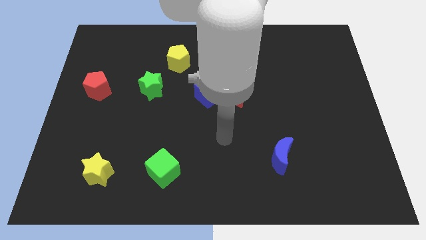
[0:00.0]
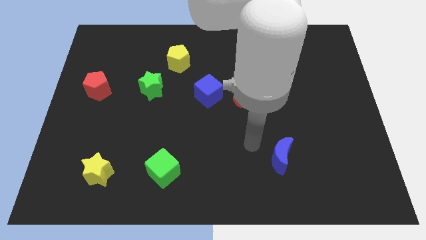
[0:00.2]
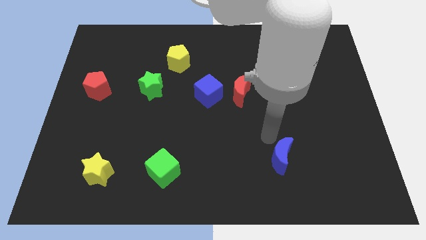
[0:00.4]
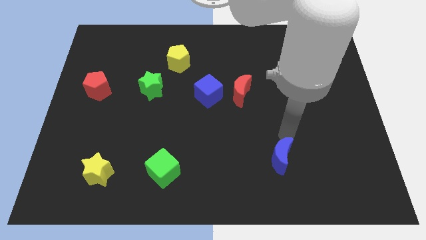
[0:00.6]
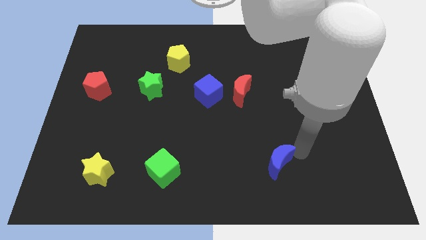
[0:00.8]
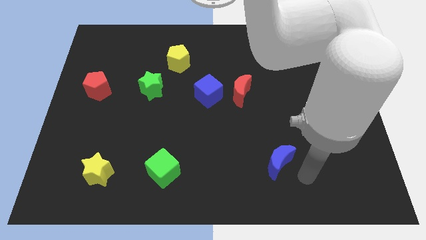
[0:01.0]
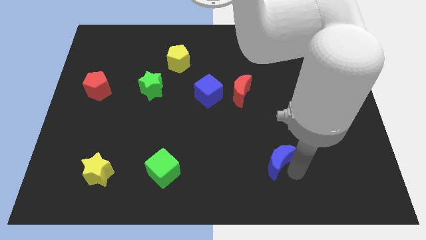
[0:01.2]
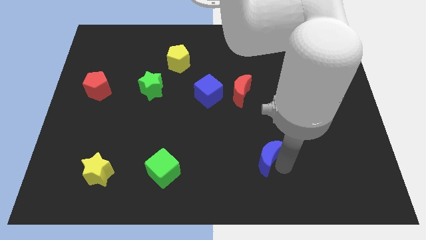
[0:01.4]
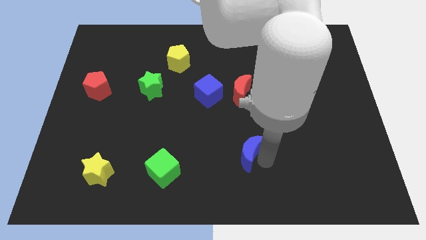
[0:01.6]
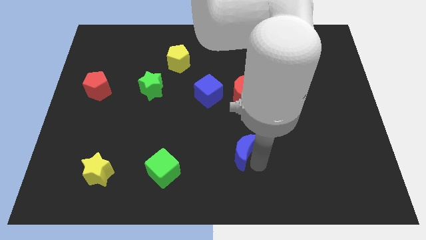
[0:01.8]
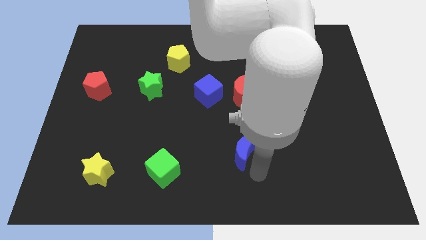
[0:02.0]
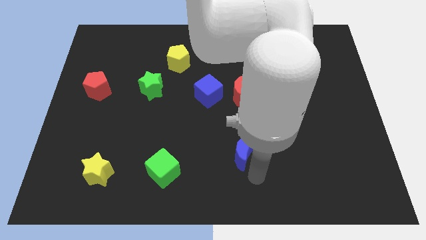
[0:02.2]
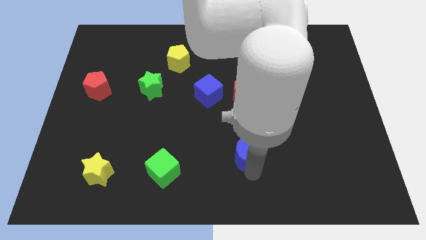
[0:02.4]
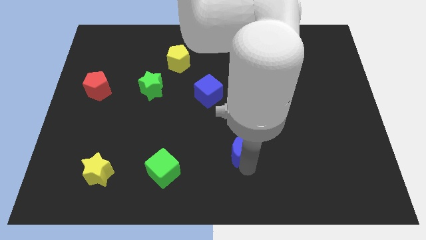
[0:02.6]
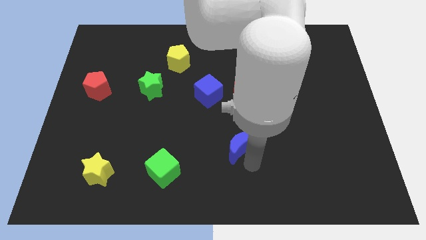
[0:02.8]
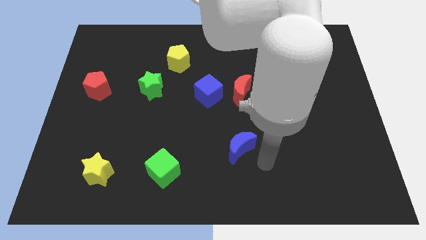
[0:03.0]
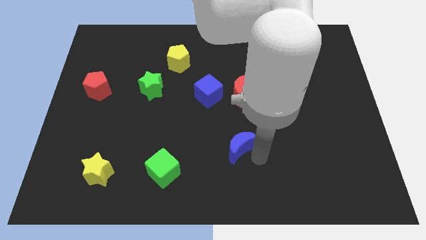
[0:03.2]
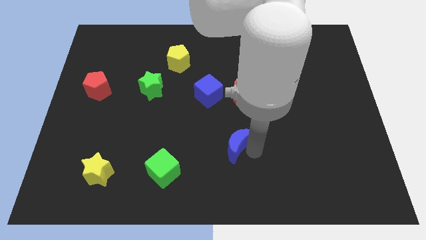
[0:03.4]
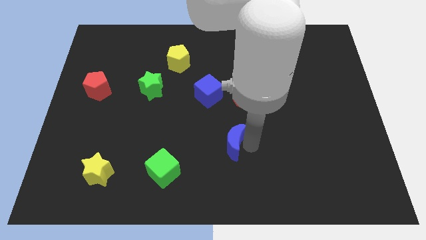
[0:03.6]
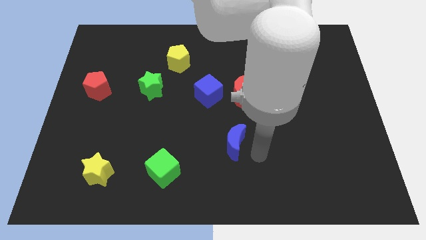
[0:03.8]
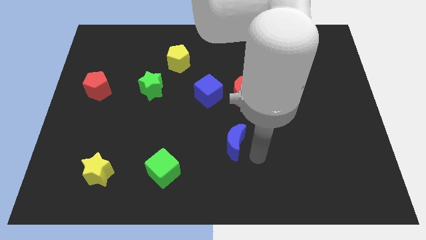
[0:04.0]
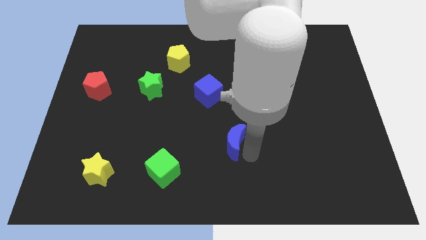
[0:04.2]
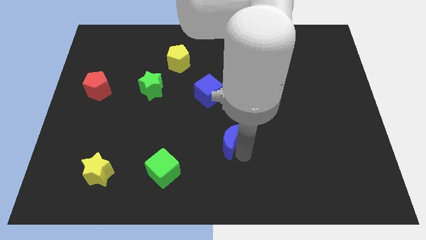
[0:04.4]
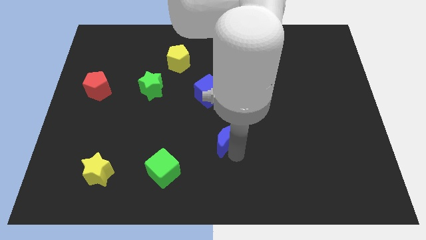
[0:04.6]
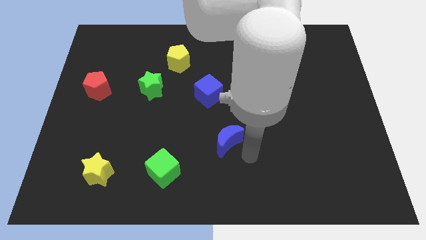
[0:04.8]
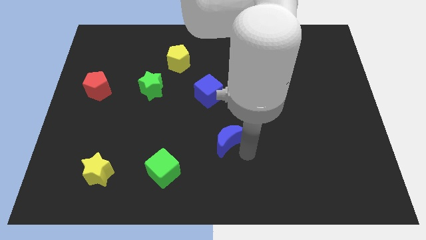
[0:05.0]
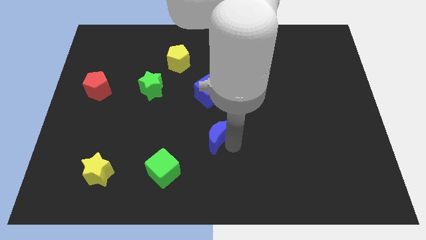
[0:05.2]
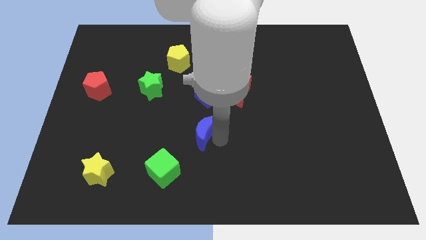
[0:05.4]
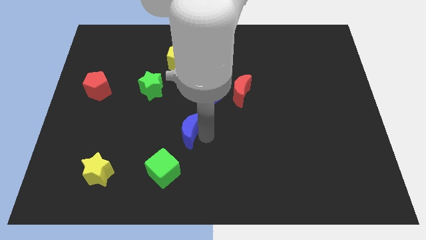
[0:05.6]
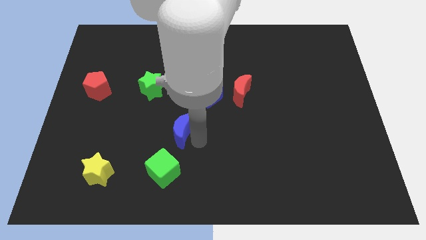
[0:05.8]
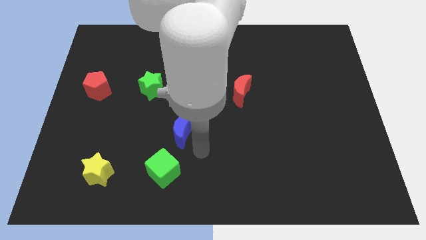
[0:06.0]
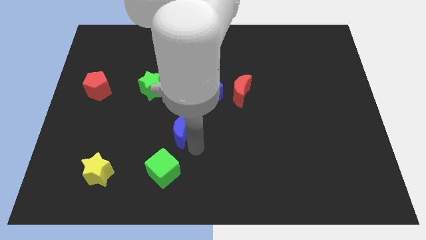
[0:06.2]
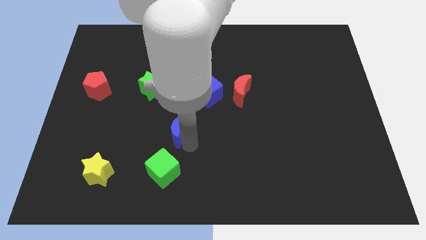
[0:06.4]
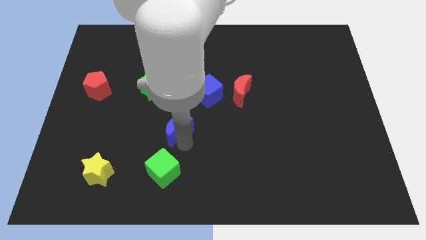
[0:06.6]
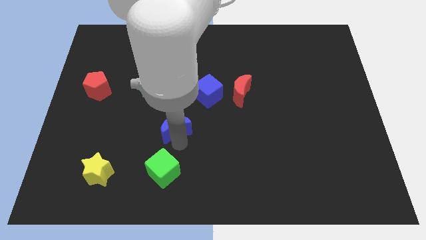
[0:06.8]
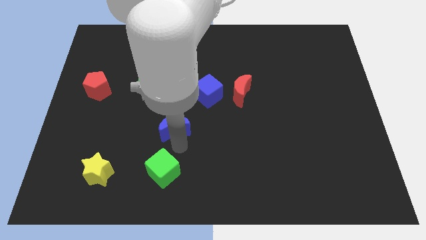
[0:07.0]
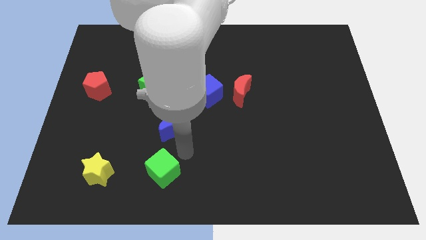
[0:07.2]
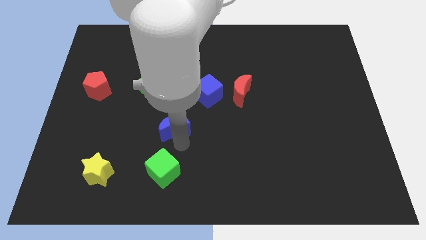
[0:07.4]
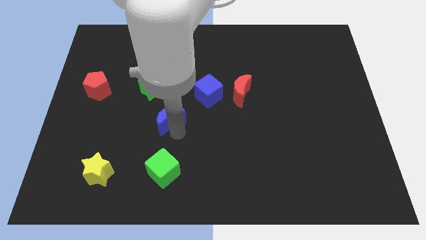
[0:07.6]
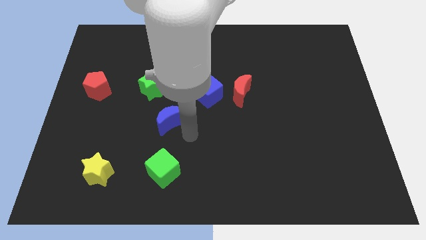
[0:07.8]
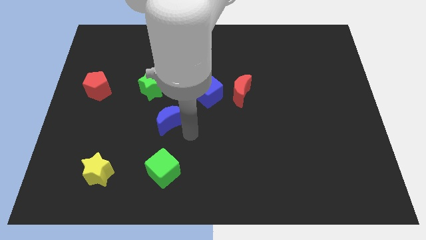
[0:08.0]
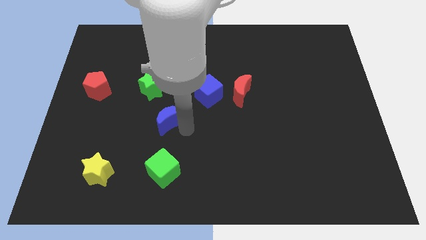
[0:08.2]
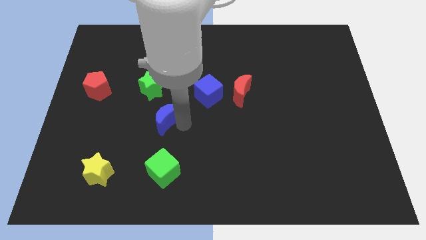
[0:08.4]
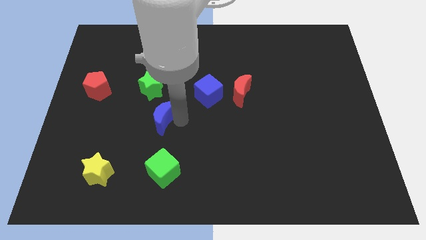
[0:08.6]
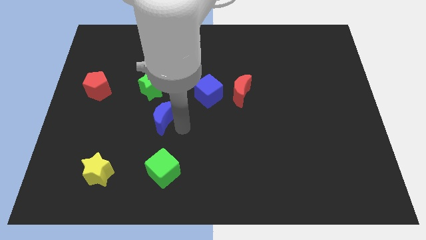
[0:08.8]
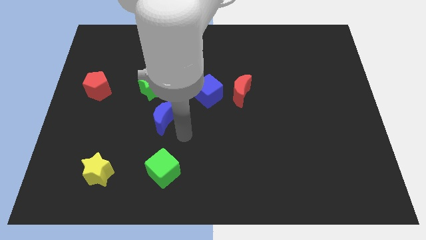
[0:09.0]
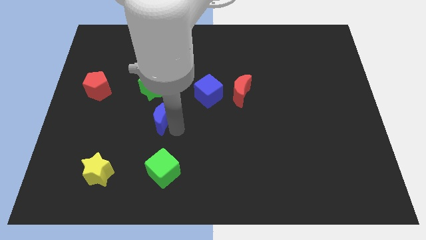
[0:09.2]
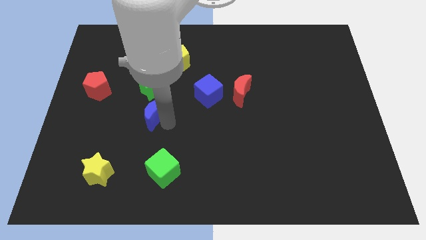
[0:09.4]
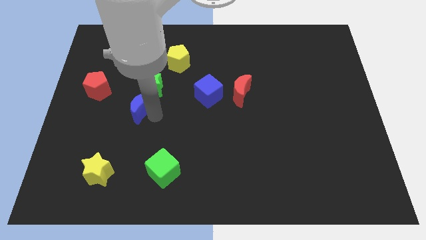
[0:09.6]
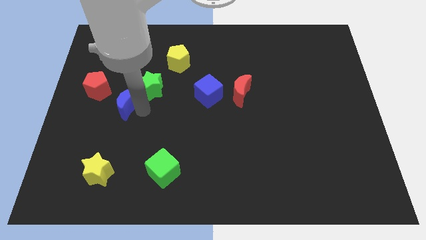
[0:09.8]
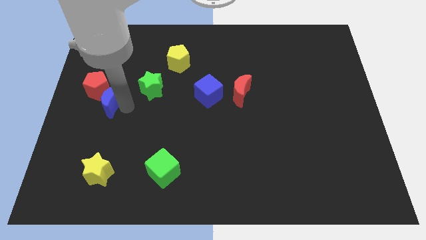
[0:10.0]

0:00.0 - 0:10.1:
put the blue moon next to the red pentagon

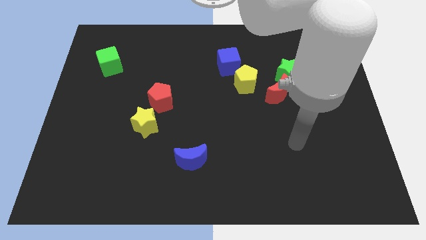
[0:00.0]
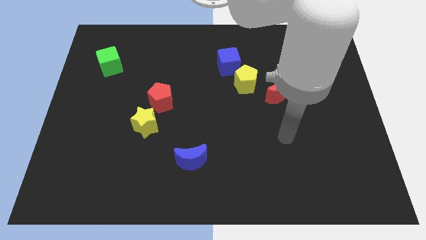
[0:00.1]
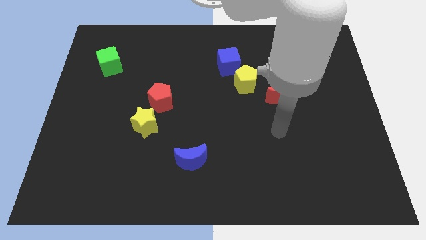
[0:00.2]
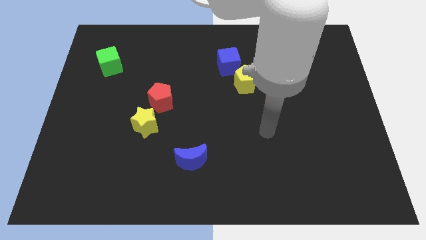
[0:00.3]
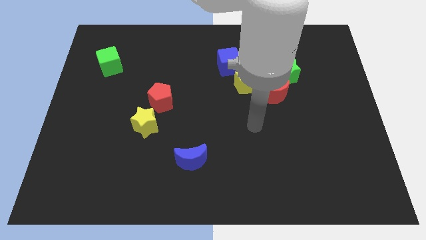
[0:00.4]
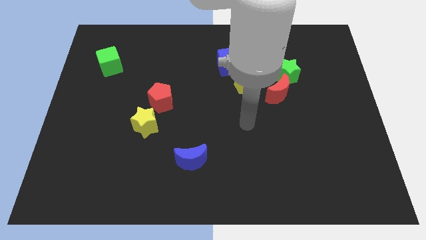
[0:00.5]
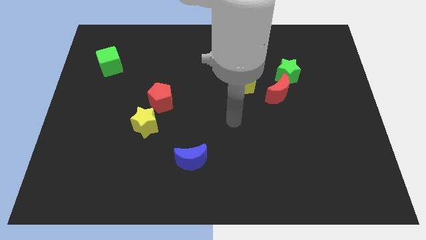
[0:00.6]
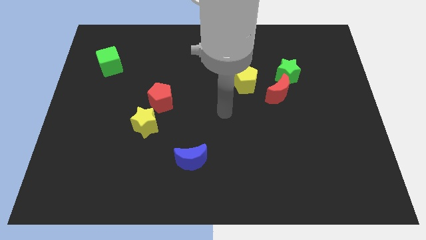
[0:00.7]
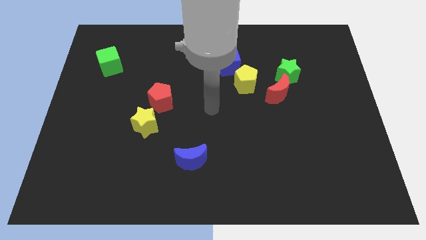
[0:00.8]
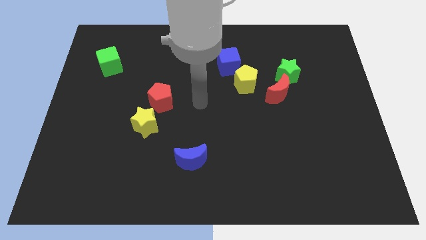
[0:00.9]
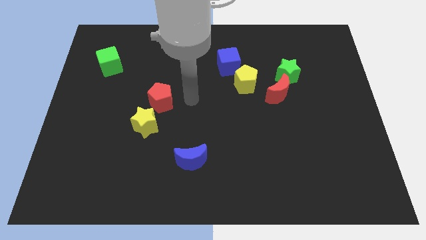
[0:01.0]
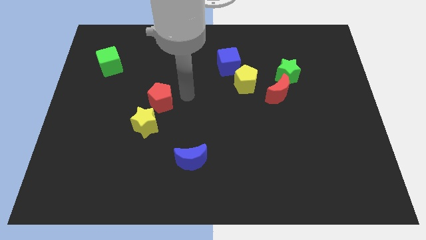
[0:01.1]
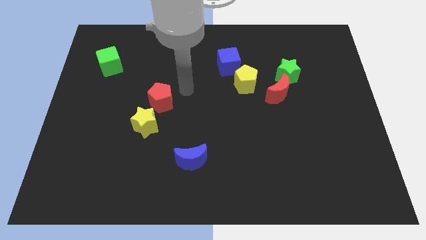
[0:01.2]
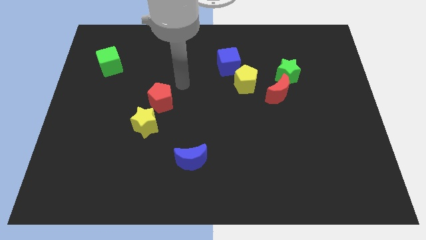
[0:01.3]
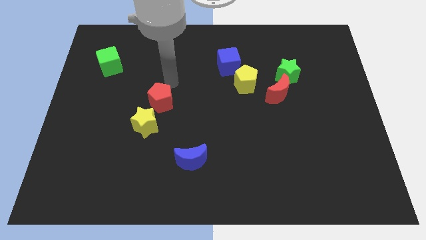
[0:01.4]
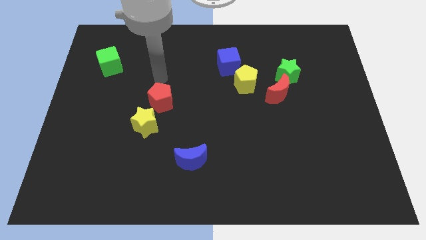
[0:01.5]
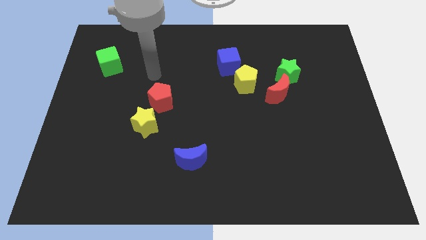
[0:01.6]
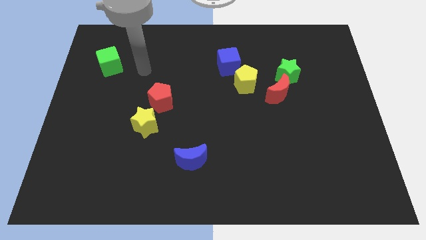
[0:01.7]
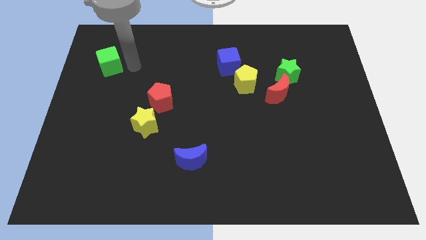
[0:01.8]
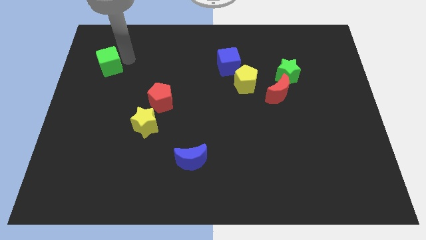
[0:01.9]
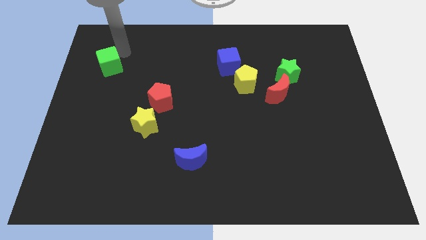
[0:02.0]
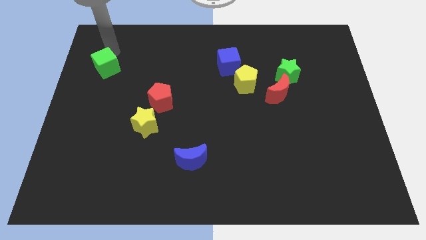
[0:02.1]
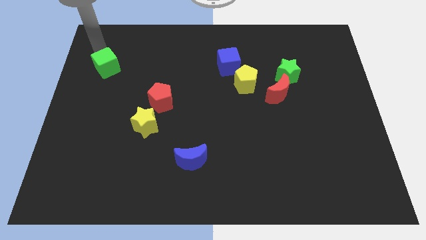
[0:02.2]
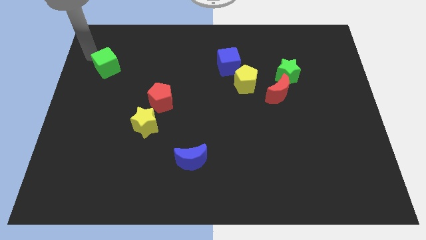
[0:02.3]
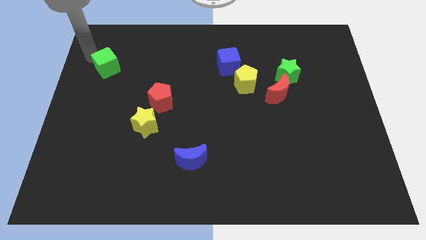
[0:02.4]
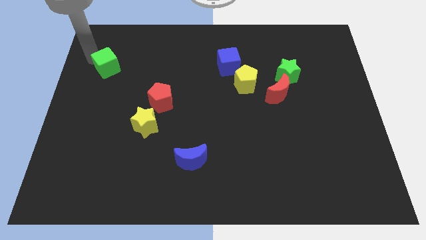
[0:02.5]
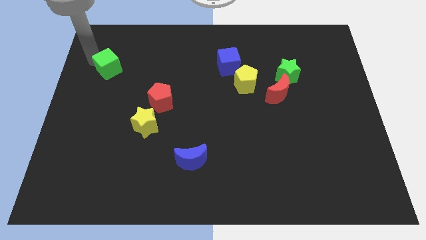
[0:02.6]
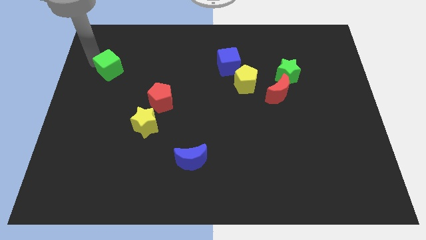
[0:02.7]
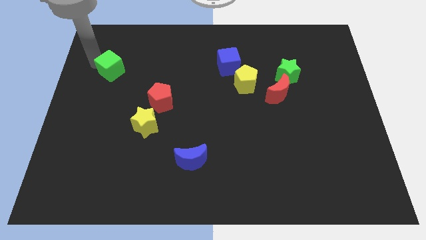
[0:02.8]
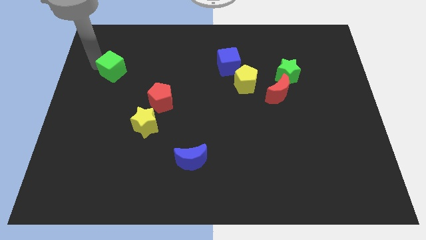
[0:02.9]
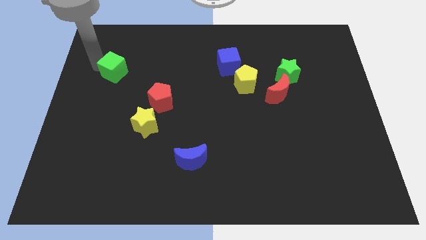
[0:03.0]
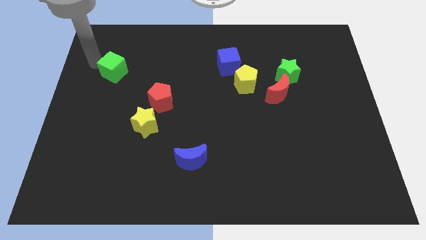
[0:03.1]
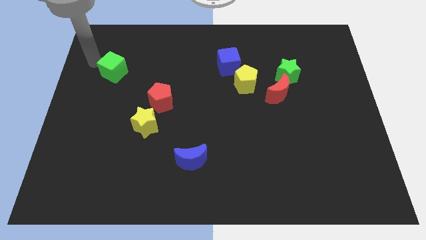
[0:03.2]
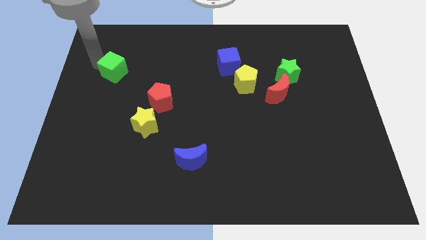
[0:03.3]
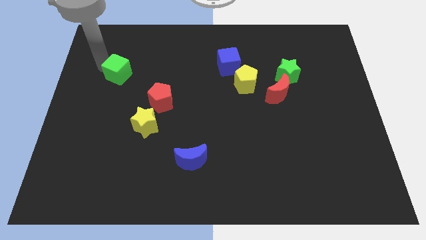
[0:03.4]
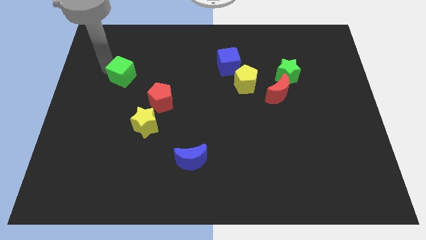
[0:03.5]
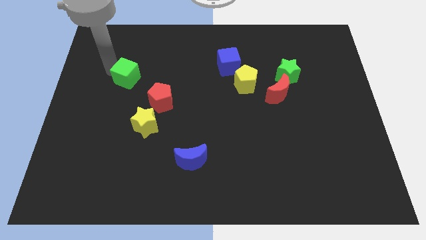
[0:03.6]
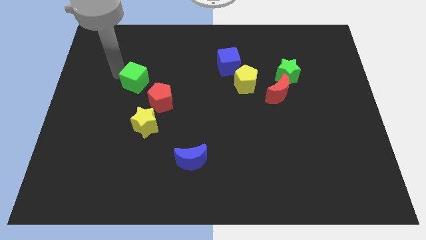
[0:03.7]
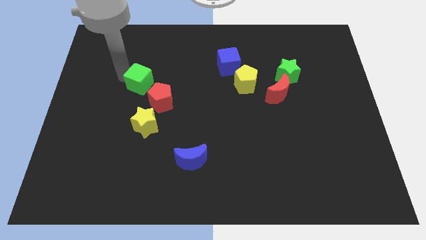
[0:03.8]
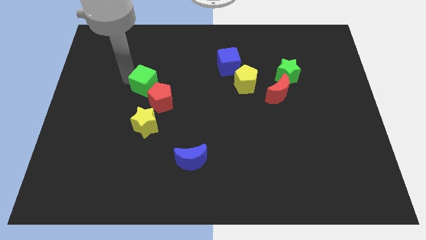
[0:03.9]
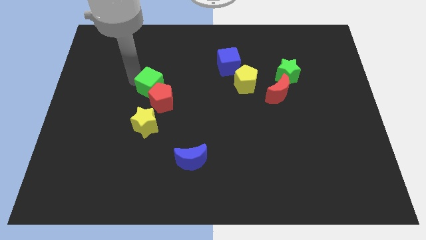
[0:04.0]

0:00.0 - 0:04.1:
slide the green cube to the red pentagon
